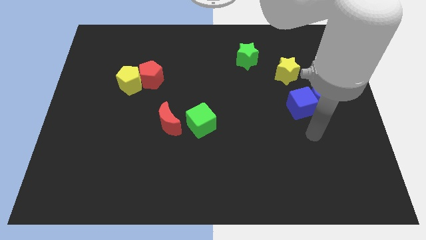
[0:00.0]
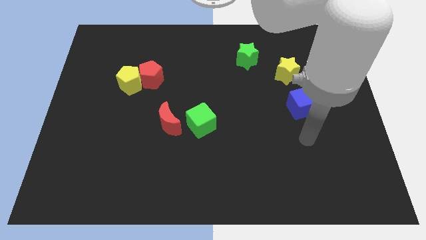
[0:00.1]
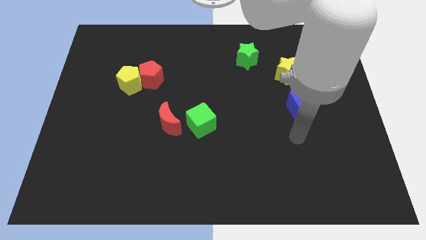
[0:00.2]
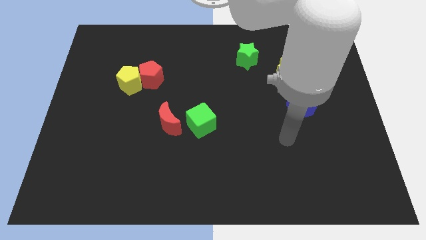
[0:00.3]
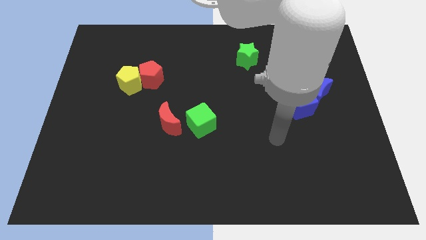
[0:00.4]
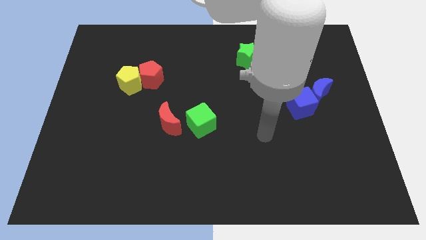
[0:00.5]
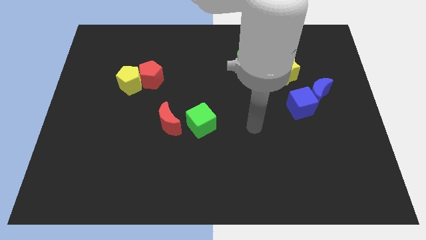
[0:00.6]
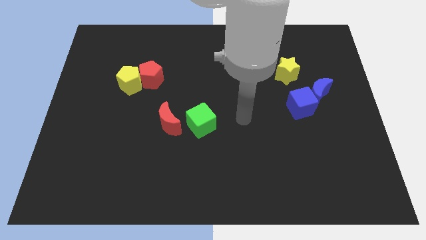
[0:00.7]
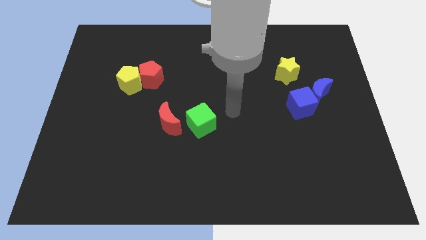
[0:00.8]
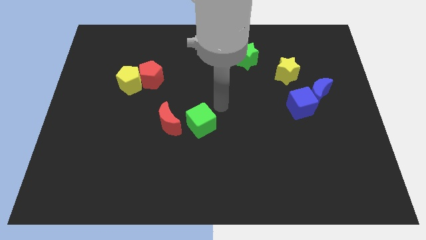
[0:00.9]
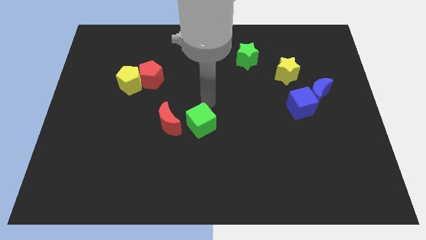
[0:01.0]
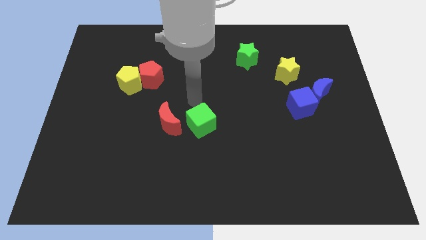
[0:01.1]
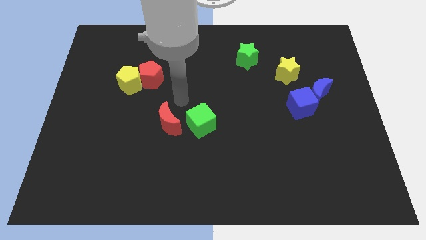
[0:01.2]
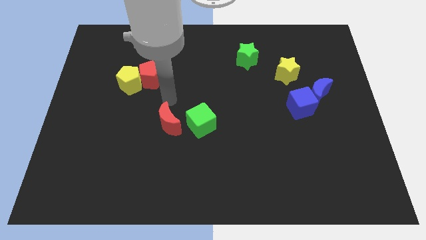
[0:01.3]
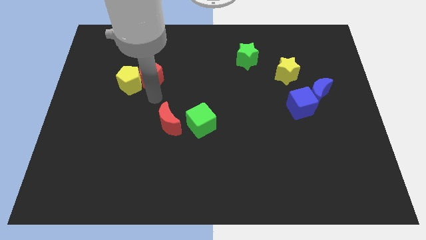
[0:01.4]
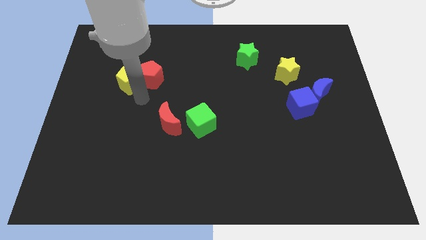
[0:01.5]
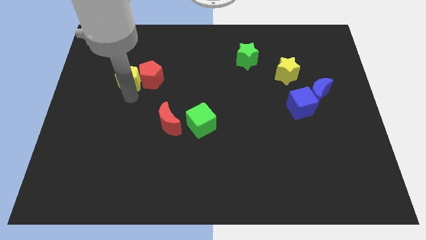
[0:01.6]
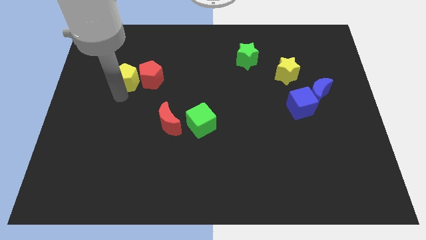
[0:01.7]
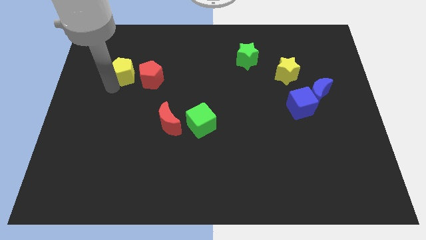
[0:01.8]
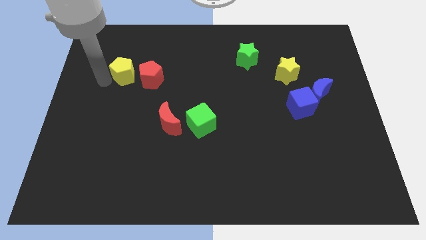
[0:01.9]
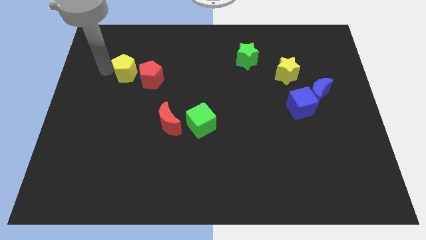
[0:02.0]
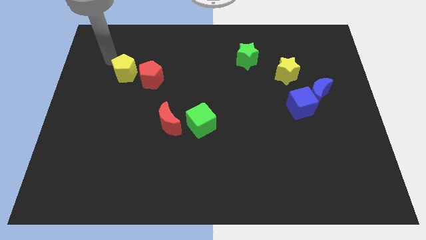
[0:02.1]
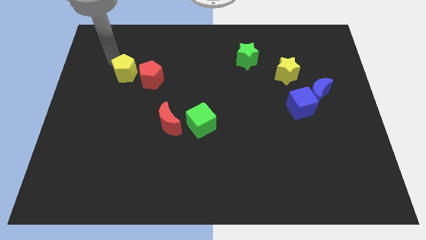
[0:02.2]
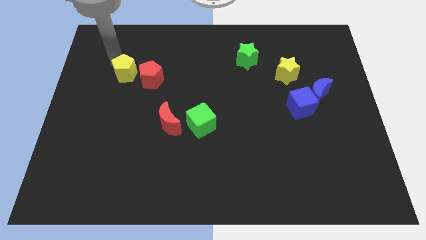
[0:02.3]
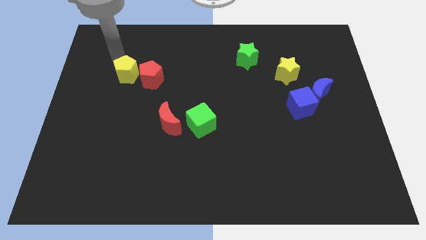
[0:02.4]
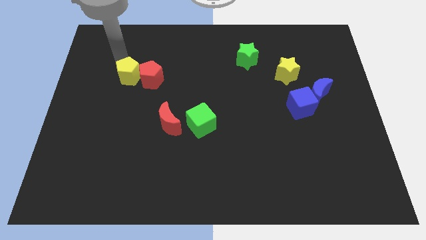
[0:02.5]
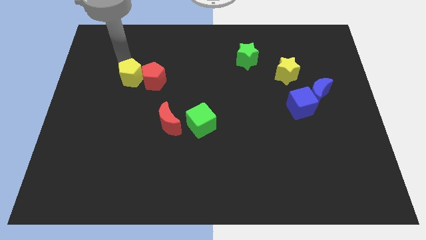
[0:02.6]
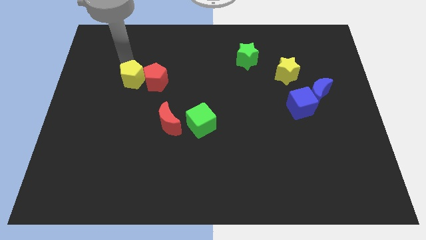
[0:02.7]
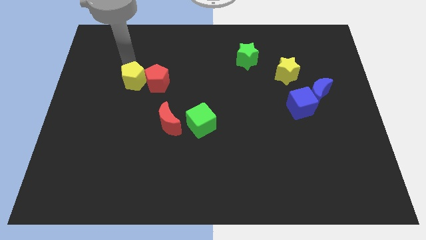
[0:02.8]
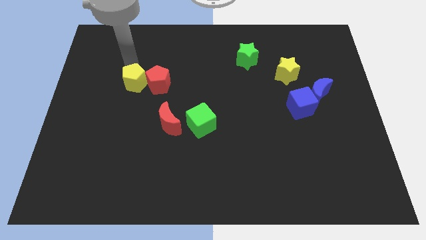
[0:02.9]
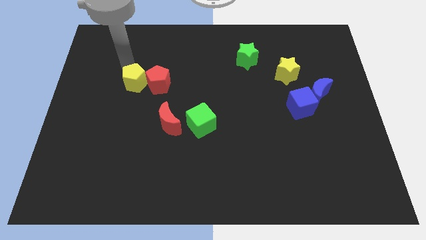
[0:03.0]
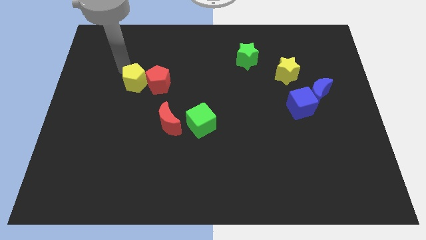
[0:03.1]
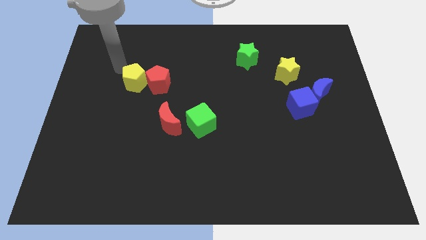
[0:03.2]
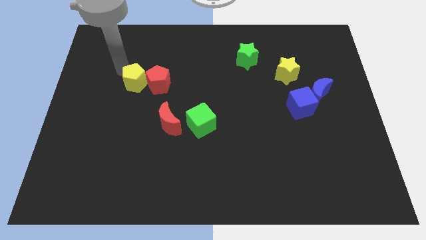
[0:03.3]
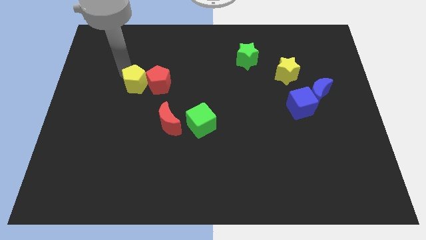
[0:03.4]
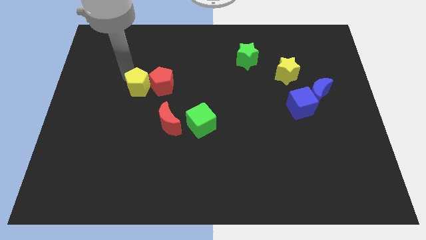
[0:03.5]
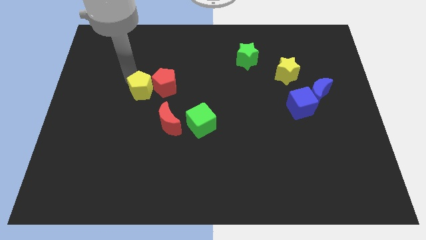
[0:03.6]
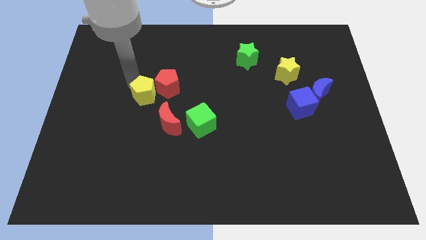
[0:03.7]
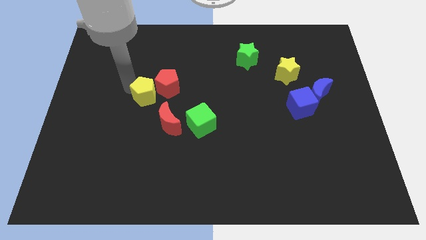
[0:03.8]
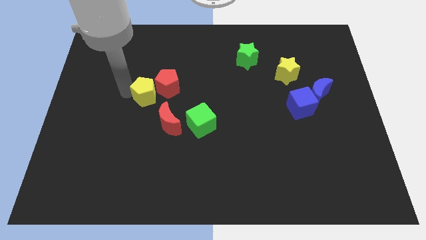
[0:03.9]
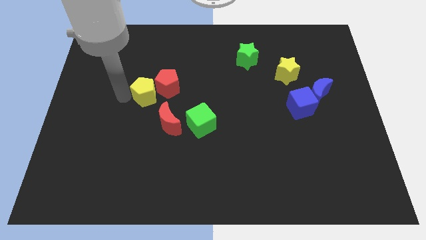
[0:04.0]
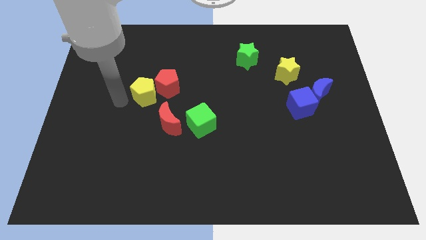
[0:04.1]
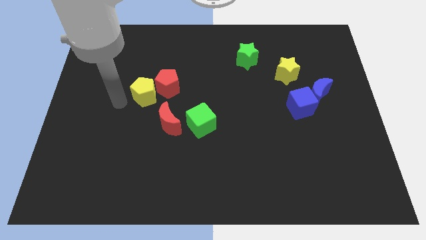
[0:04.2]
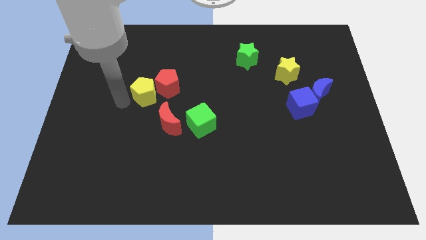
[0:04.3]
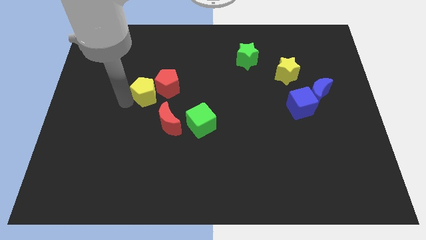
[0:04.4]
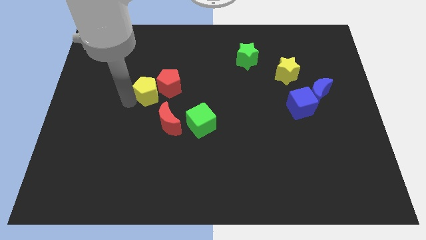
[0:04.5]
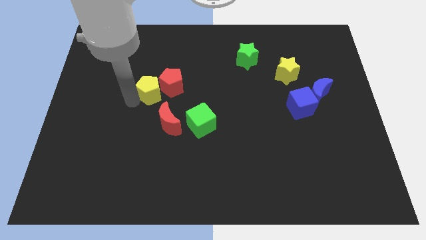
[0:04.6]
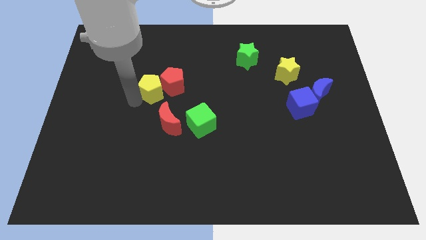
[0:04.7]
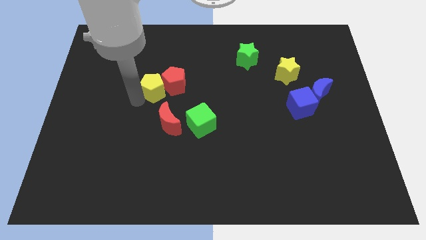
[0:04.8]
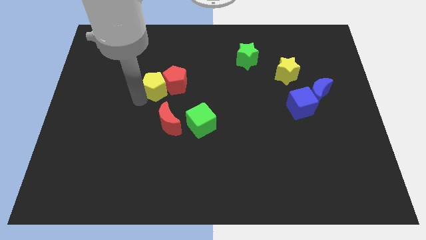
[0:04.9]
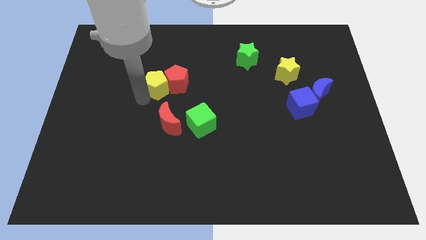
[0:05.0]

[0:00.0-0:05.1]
push the yellow pentagon slightly right

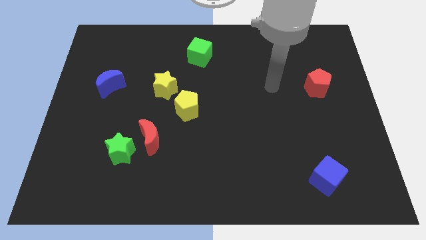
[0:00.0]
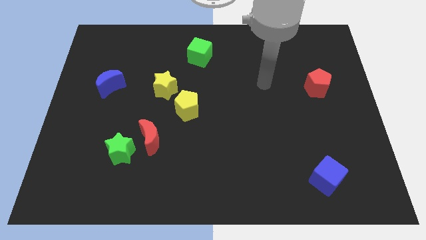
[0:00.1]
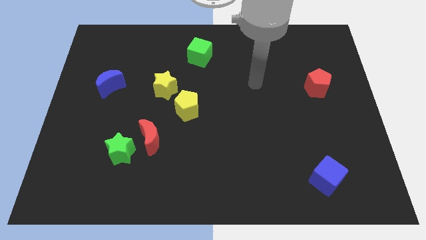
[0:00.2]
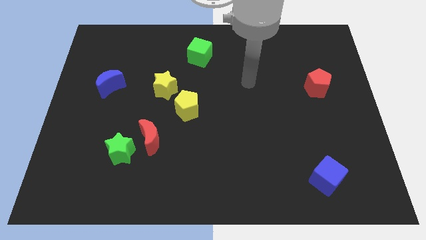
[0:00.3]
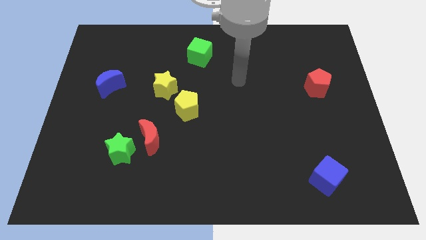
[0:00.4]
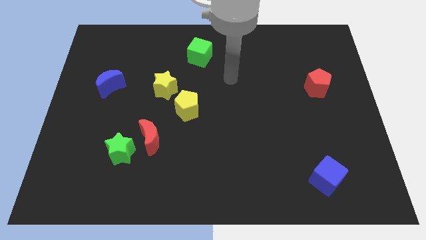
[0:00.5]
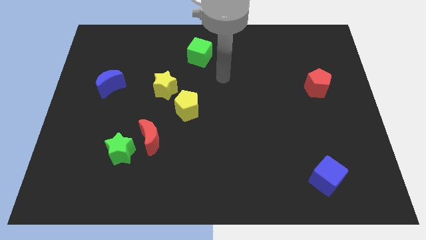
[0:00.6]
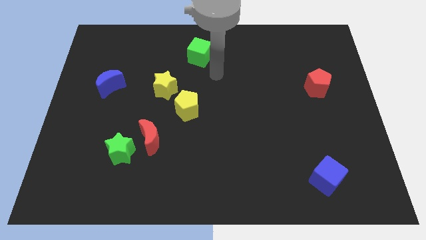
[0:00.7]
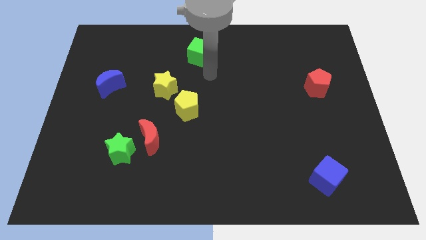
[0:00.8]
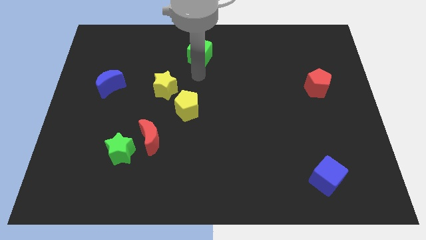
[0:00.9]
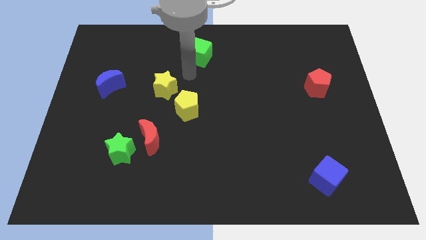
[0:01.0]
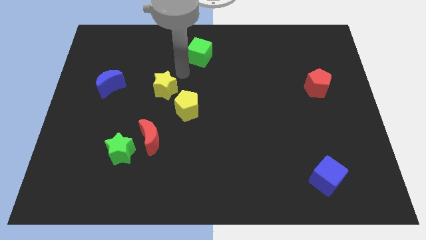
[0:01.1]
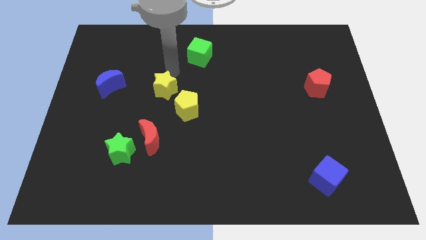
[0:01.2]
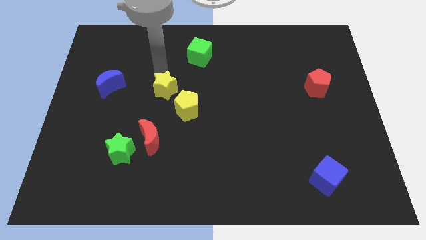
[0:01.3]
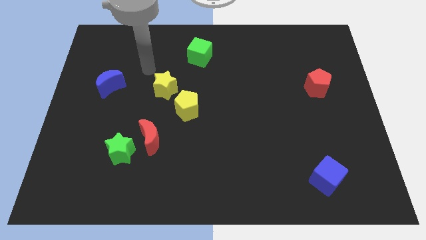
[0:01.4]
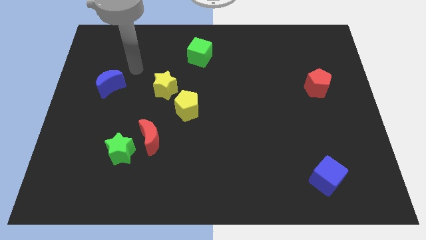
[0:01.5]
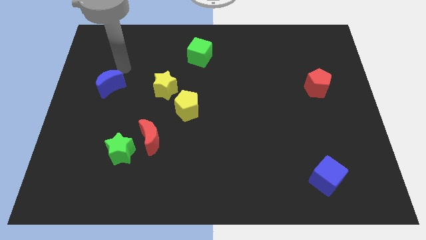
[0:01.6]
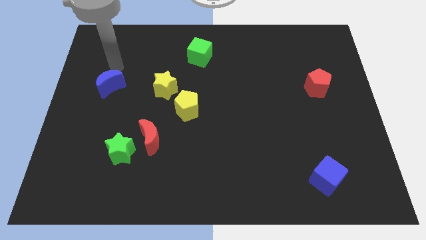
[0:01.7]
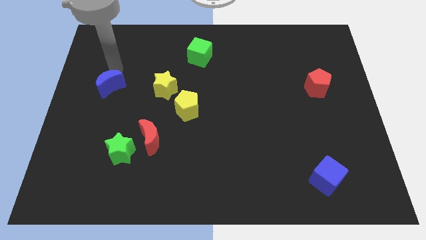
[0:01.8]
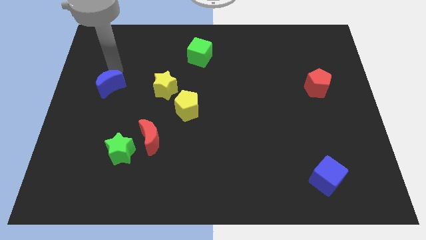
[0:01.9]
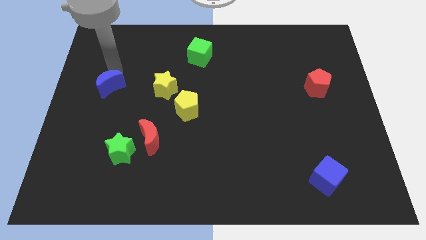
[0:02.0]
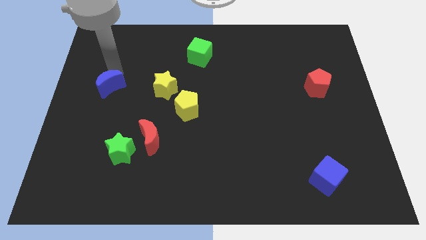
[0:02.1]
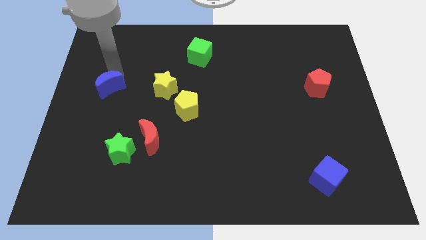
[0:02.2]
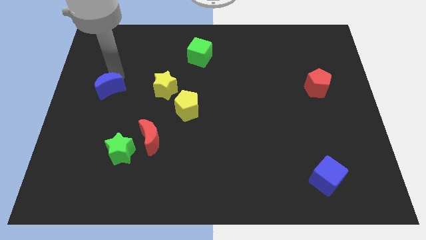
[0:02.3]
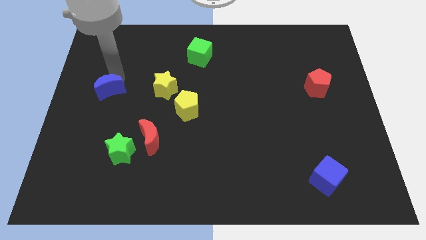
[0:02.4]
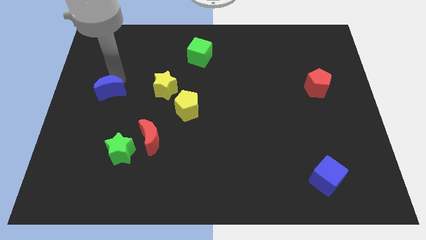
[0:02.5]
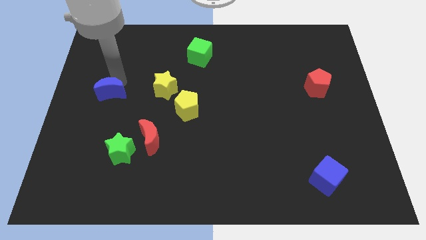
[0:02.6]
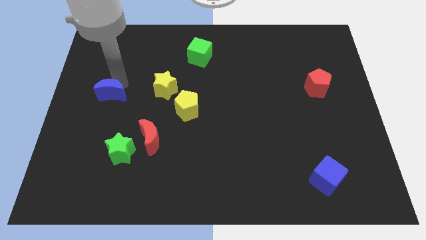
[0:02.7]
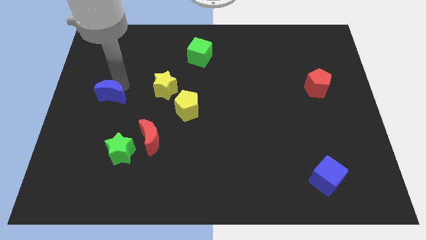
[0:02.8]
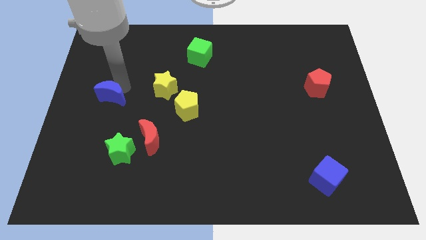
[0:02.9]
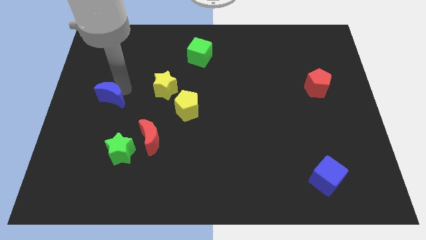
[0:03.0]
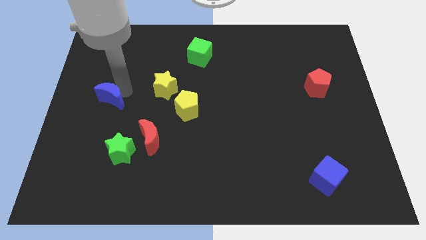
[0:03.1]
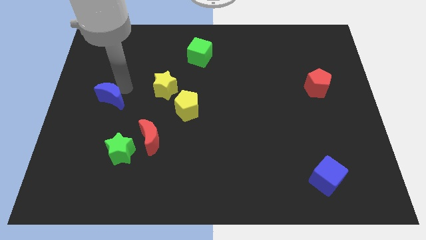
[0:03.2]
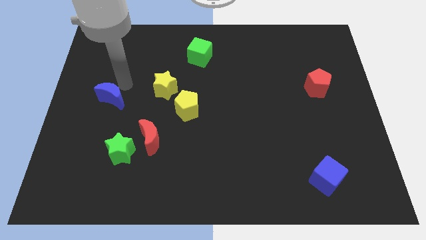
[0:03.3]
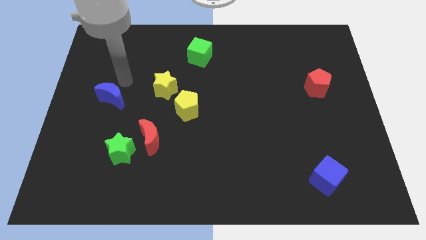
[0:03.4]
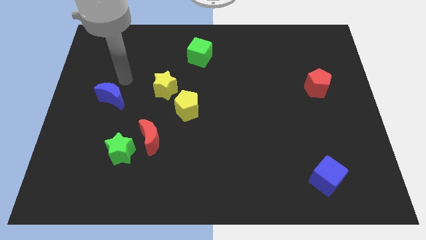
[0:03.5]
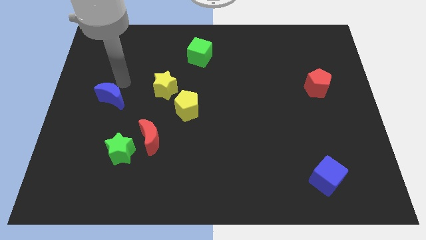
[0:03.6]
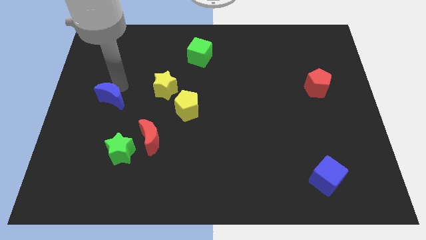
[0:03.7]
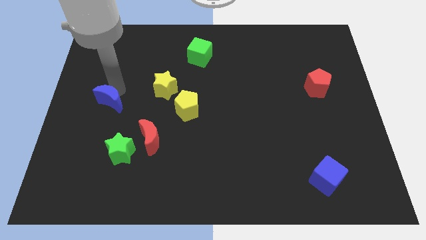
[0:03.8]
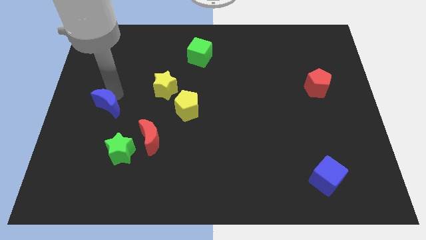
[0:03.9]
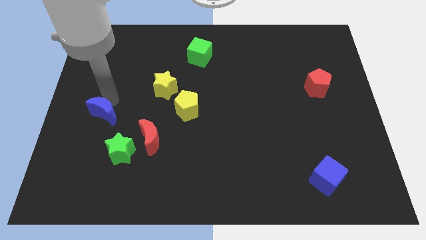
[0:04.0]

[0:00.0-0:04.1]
move the blue moon slightly down
